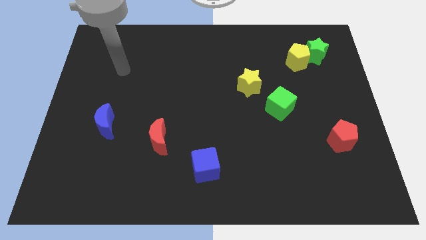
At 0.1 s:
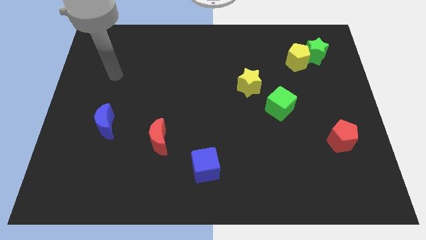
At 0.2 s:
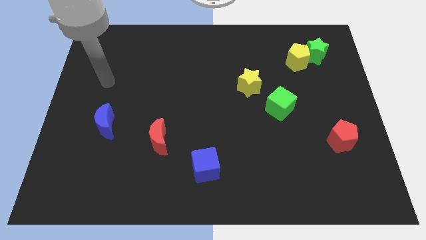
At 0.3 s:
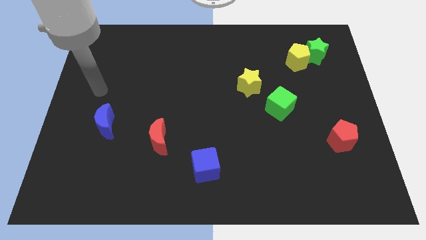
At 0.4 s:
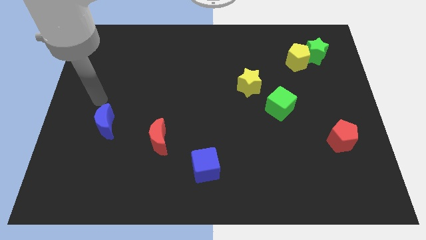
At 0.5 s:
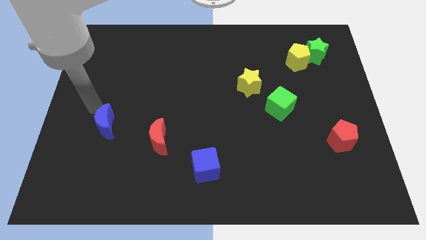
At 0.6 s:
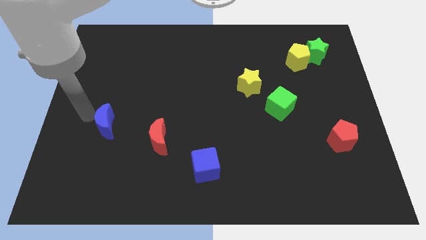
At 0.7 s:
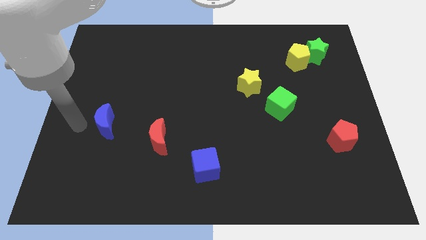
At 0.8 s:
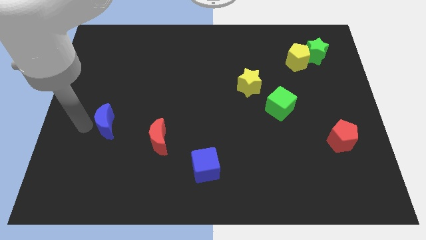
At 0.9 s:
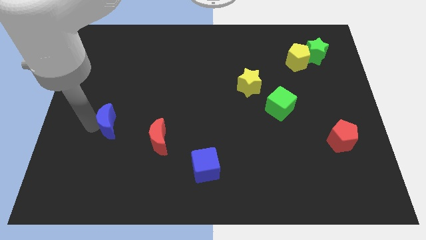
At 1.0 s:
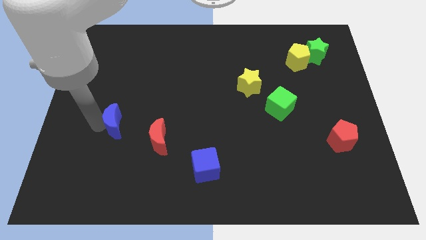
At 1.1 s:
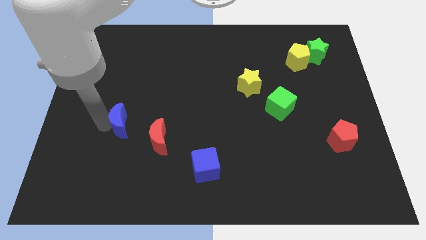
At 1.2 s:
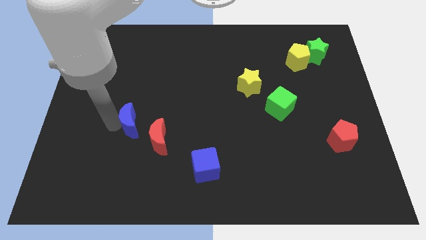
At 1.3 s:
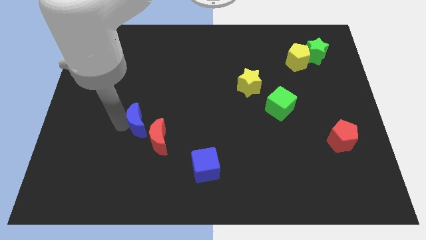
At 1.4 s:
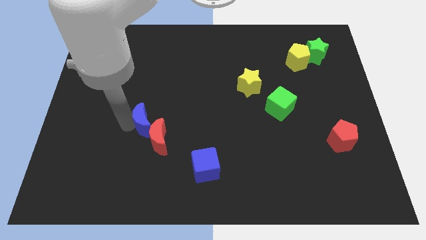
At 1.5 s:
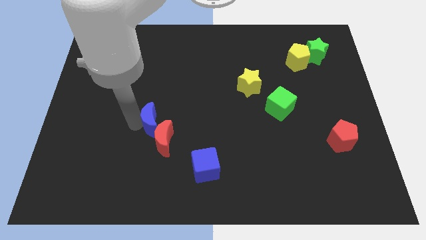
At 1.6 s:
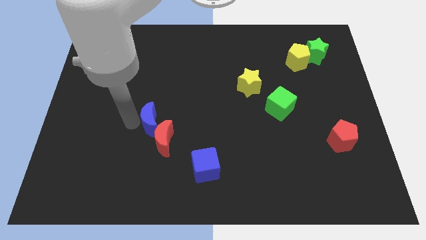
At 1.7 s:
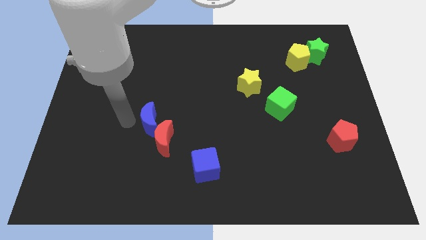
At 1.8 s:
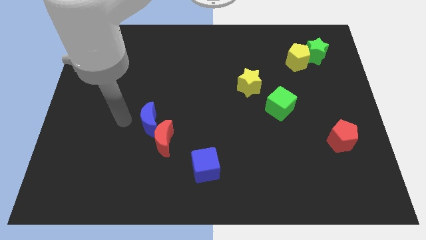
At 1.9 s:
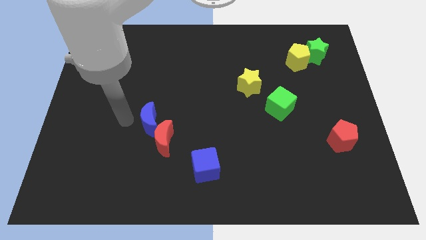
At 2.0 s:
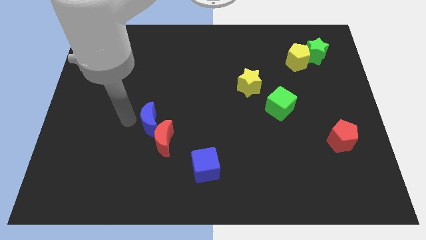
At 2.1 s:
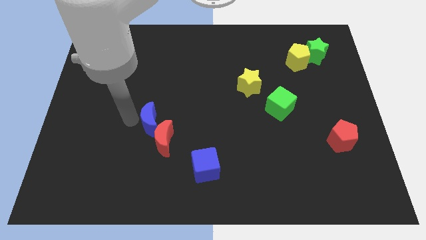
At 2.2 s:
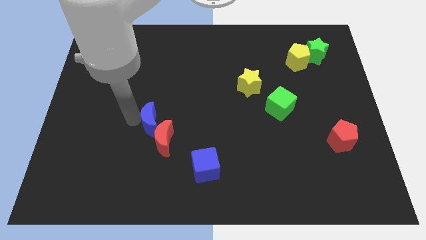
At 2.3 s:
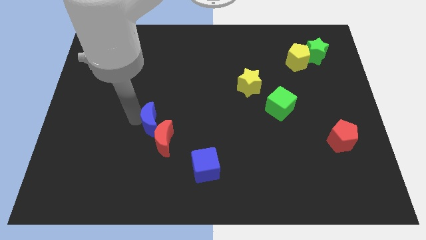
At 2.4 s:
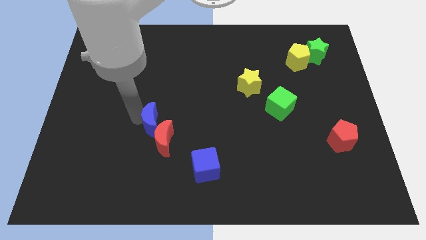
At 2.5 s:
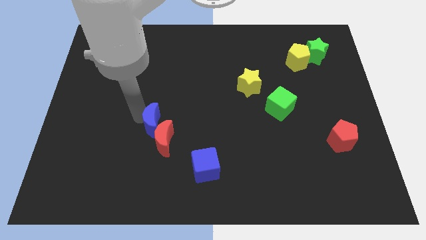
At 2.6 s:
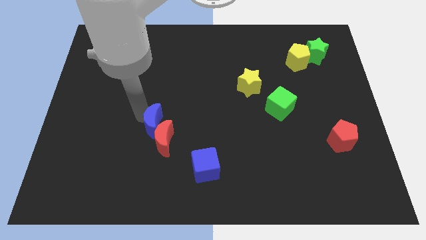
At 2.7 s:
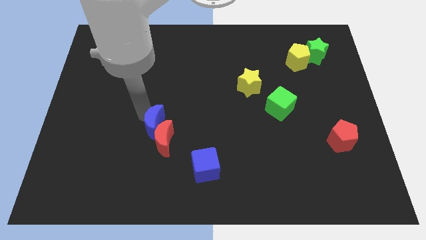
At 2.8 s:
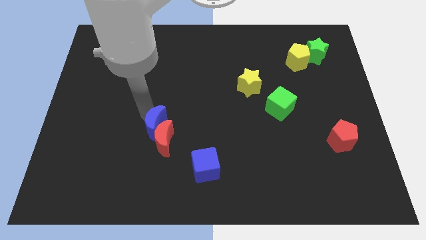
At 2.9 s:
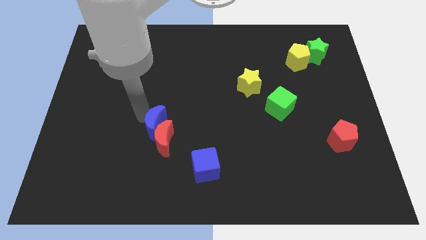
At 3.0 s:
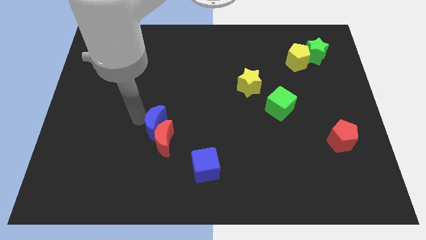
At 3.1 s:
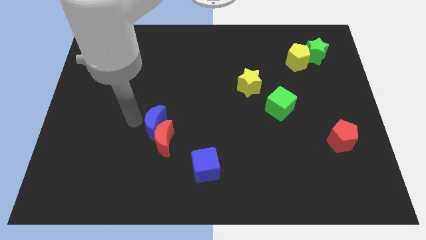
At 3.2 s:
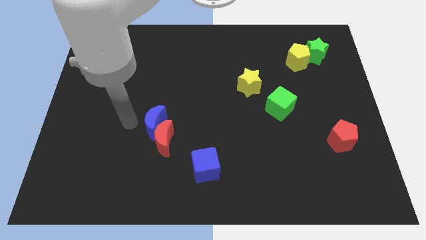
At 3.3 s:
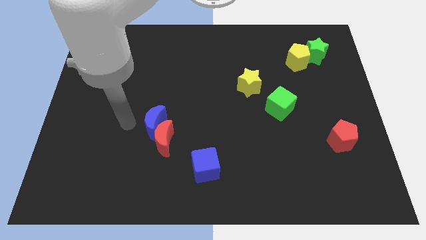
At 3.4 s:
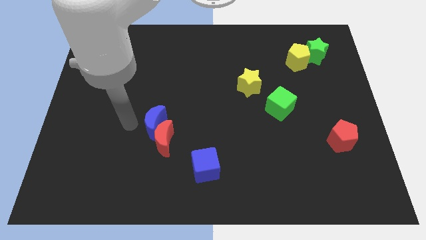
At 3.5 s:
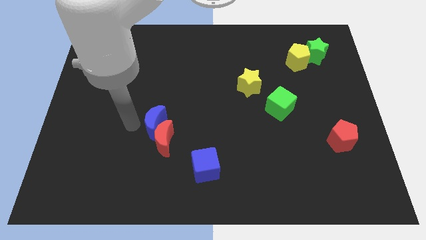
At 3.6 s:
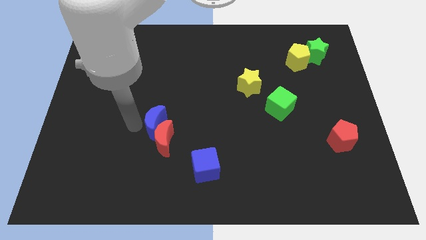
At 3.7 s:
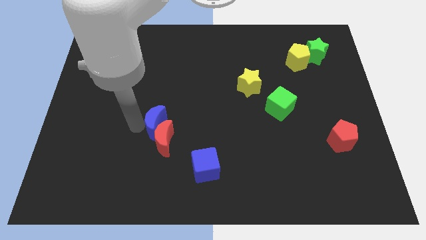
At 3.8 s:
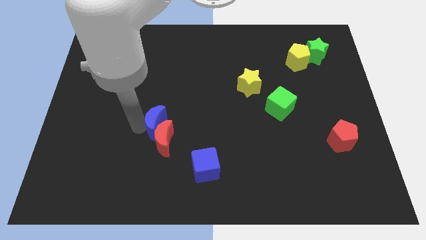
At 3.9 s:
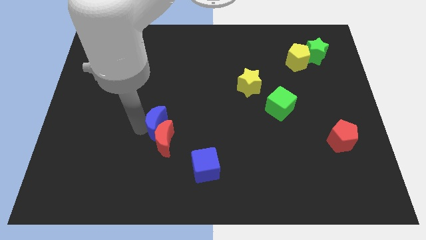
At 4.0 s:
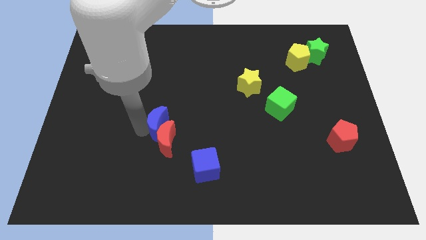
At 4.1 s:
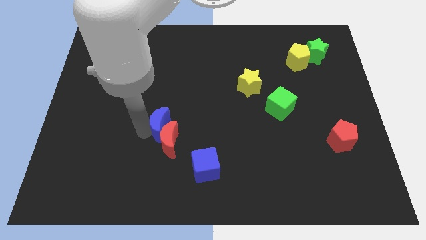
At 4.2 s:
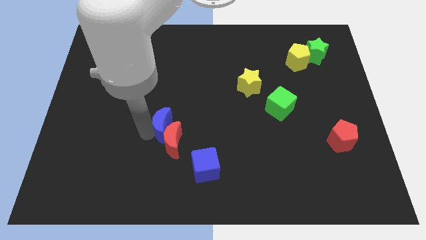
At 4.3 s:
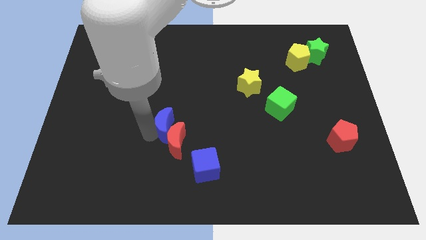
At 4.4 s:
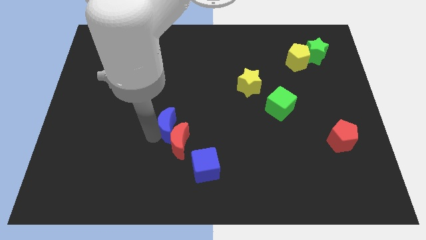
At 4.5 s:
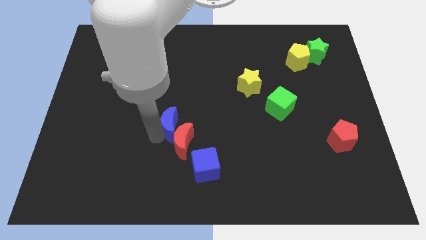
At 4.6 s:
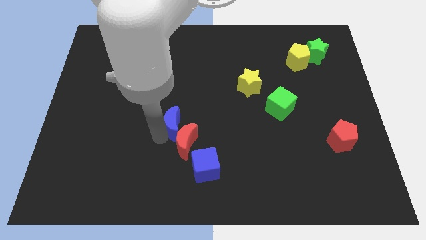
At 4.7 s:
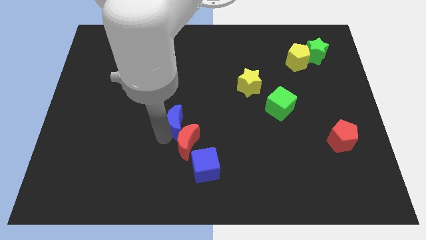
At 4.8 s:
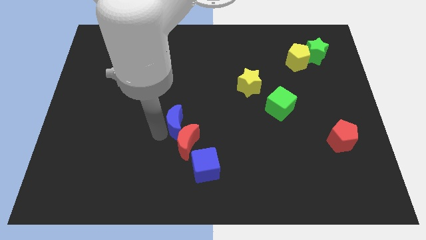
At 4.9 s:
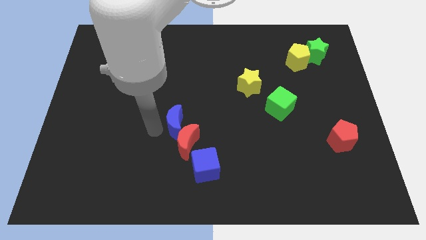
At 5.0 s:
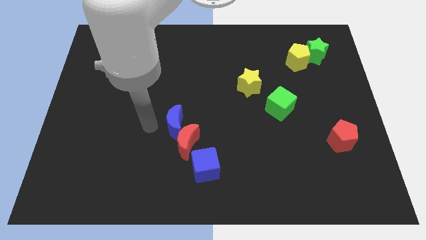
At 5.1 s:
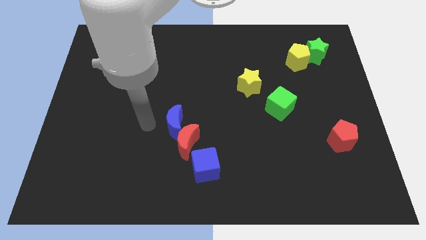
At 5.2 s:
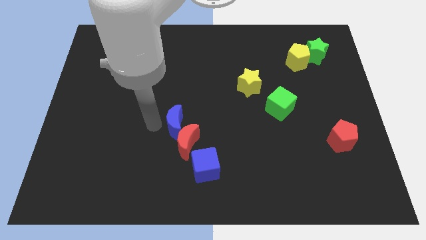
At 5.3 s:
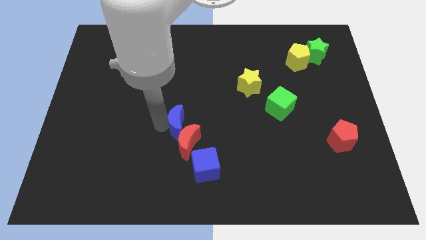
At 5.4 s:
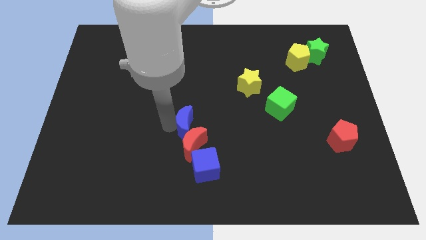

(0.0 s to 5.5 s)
push the blue moon above the blue cube

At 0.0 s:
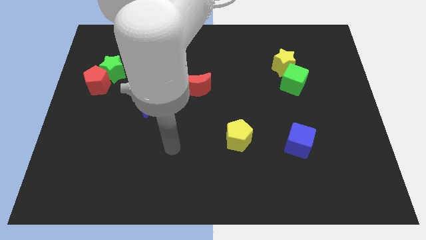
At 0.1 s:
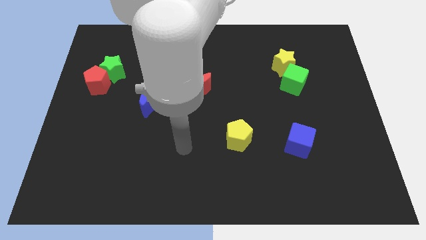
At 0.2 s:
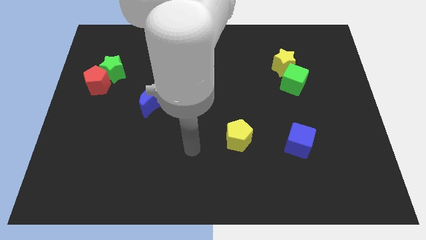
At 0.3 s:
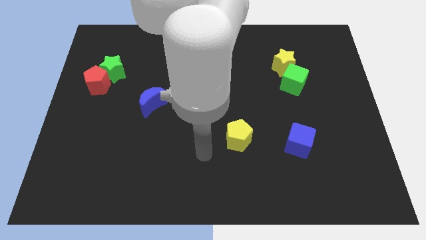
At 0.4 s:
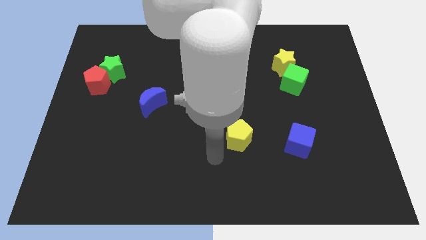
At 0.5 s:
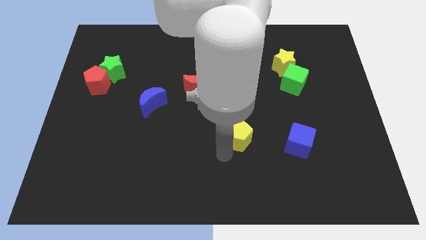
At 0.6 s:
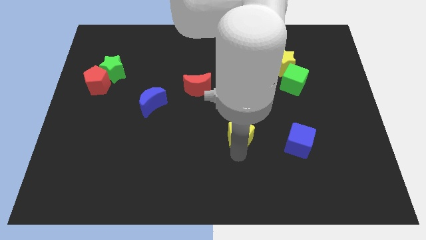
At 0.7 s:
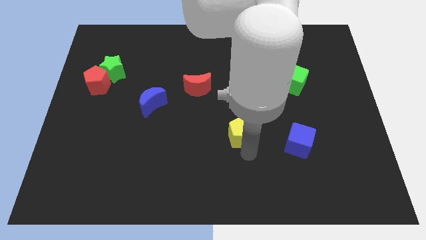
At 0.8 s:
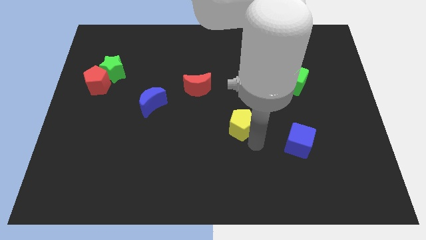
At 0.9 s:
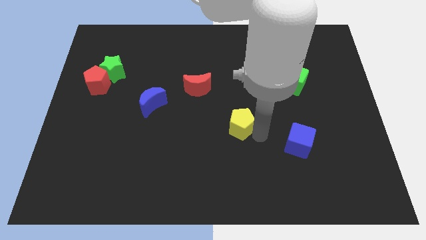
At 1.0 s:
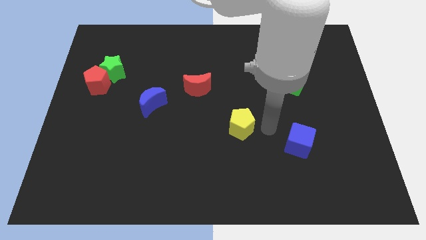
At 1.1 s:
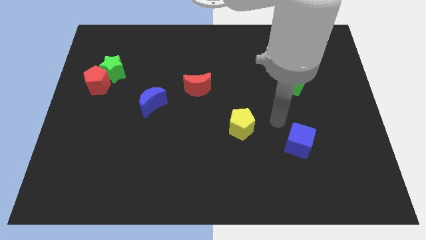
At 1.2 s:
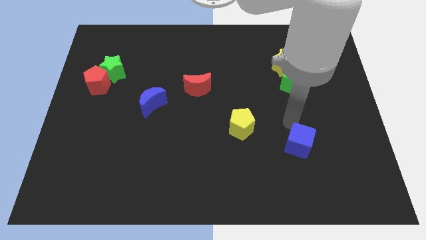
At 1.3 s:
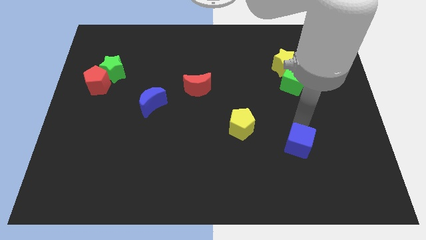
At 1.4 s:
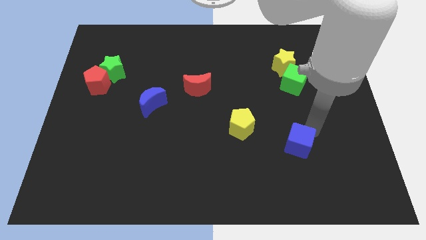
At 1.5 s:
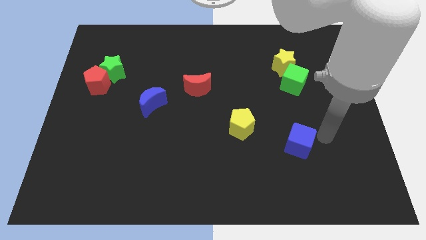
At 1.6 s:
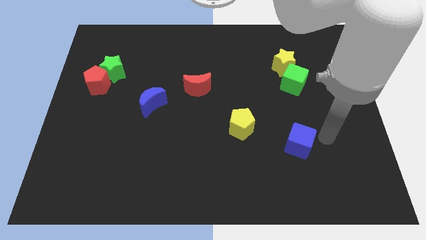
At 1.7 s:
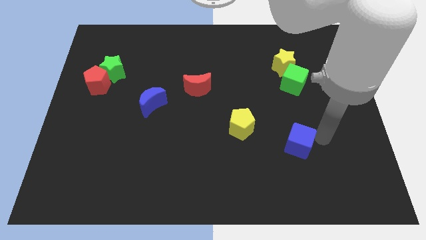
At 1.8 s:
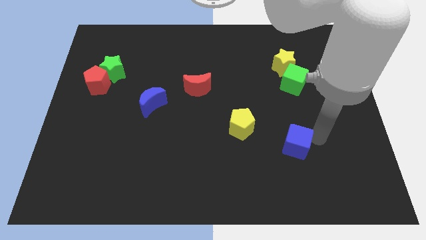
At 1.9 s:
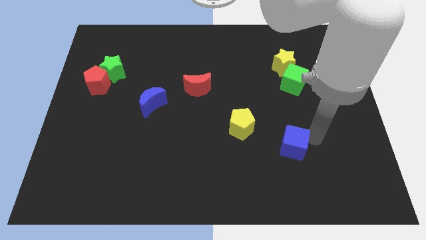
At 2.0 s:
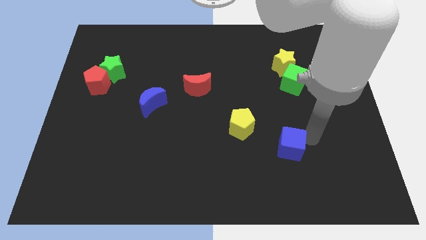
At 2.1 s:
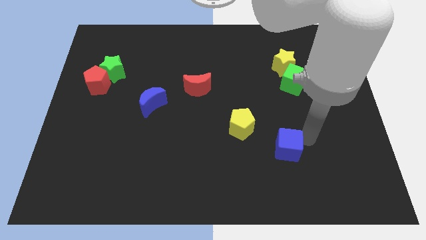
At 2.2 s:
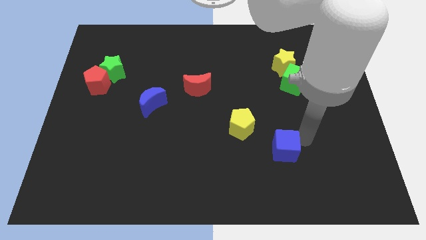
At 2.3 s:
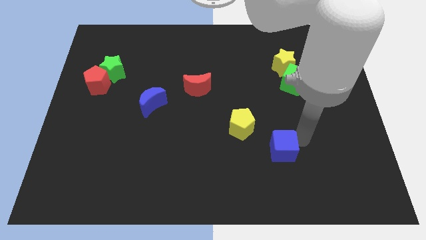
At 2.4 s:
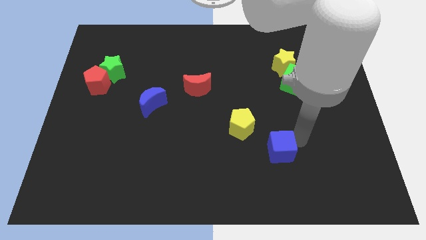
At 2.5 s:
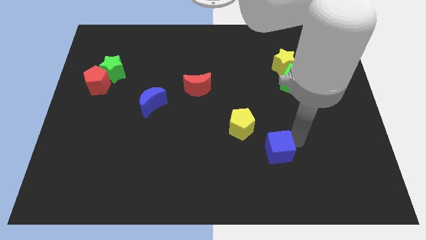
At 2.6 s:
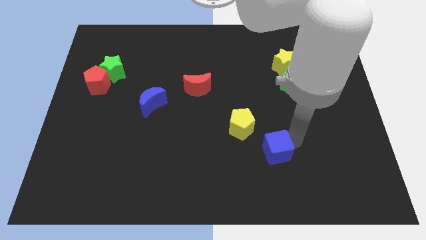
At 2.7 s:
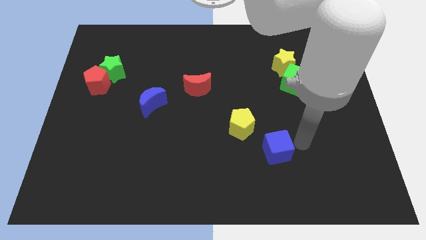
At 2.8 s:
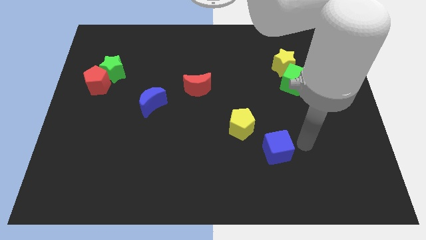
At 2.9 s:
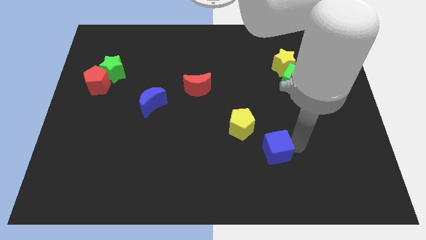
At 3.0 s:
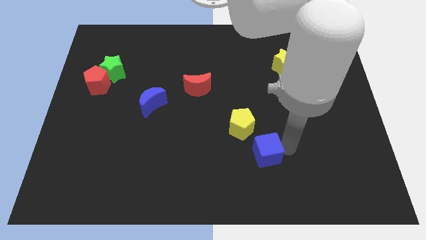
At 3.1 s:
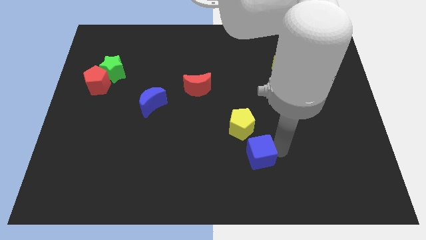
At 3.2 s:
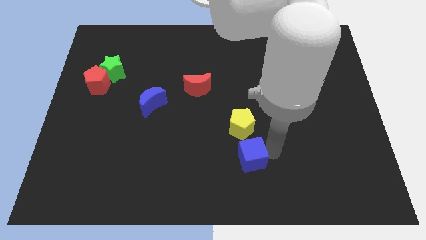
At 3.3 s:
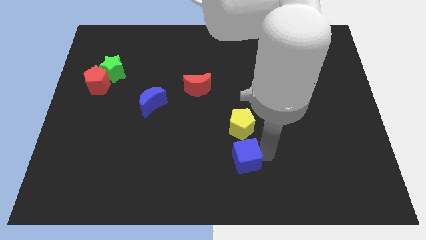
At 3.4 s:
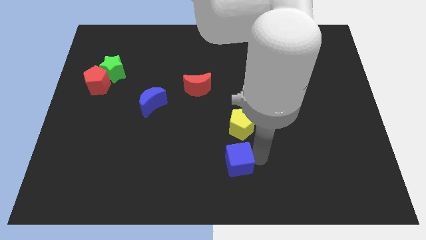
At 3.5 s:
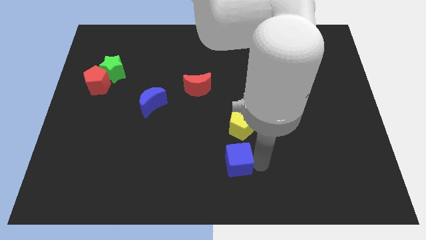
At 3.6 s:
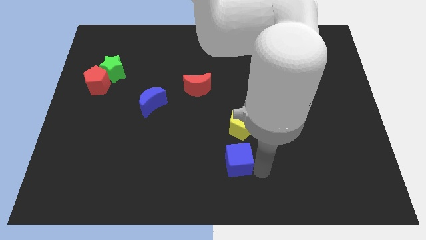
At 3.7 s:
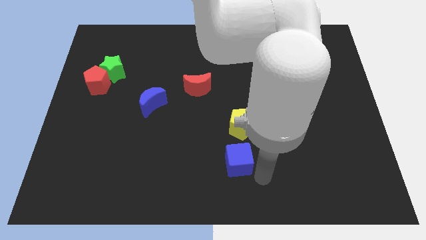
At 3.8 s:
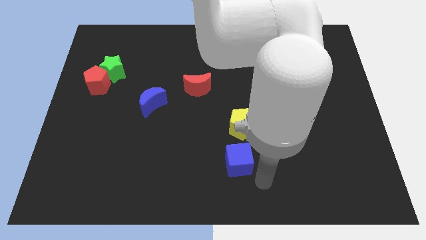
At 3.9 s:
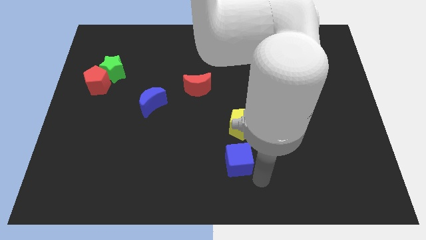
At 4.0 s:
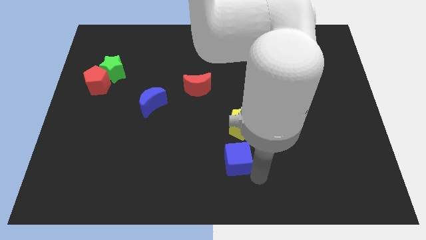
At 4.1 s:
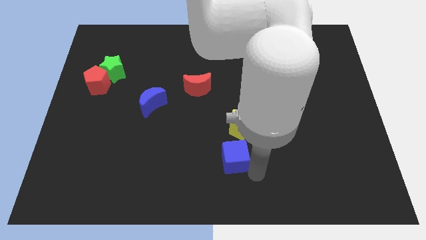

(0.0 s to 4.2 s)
put the blue cube to the bottom left side of the yellow pentagon
